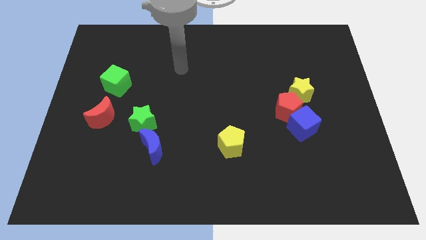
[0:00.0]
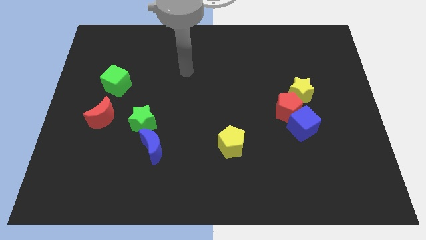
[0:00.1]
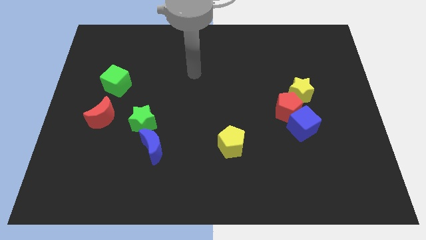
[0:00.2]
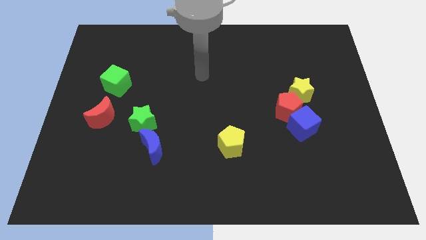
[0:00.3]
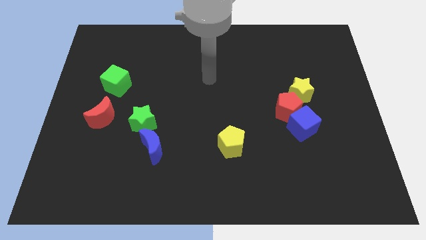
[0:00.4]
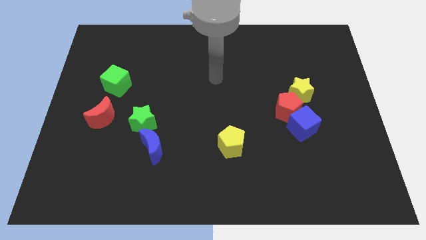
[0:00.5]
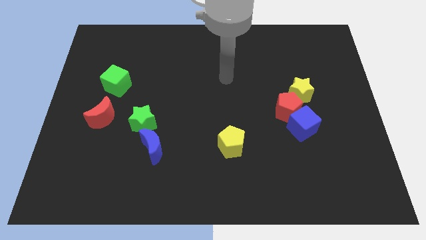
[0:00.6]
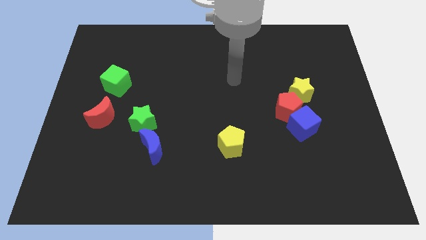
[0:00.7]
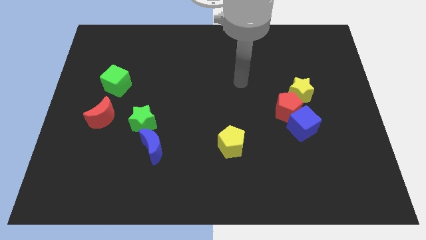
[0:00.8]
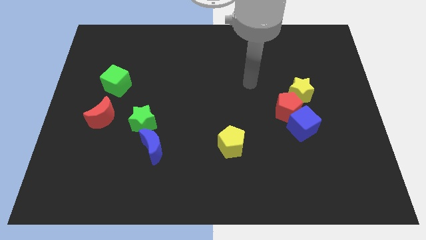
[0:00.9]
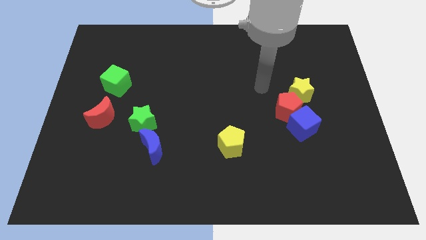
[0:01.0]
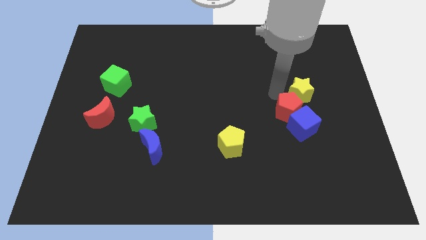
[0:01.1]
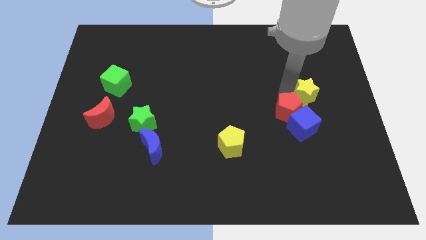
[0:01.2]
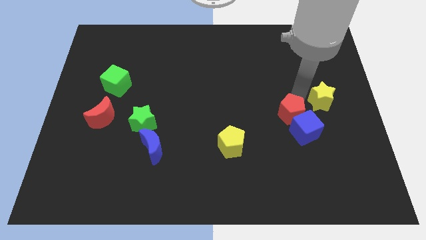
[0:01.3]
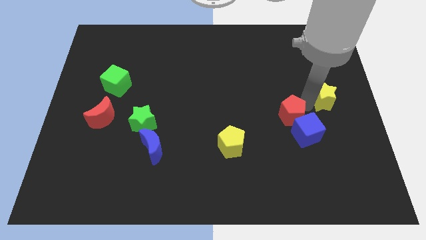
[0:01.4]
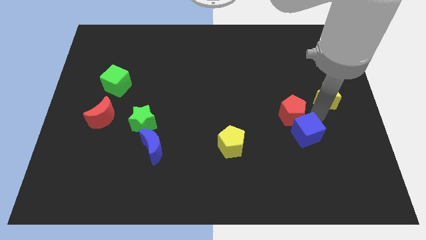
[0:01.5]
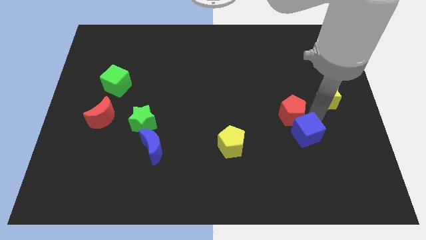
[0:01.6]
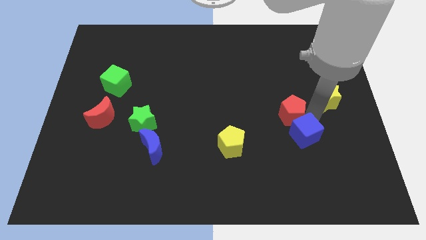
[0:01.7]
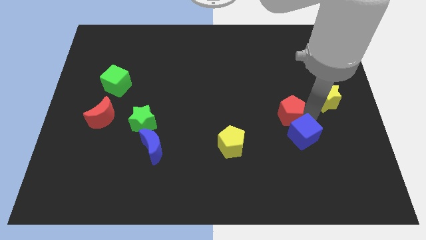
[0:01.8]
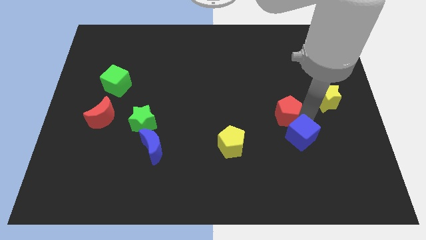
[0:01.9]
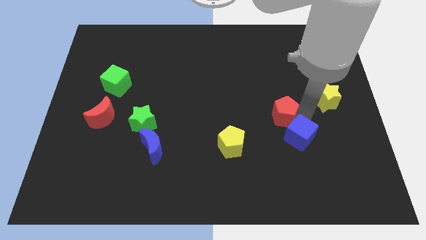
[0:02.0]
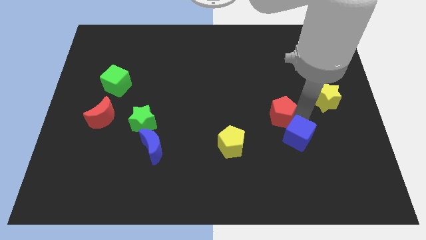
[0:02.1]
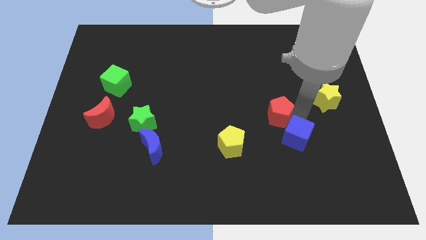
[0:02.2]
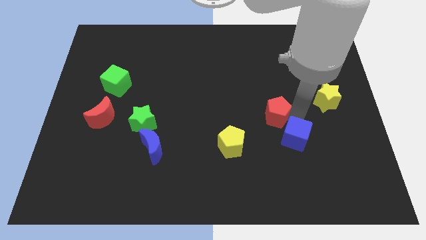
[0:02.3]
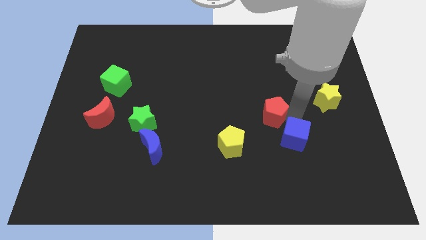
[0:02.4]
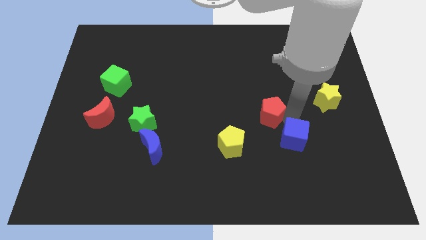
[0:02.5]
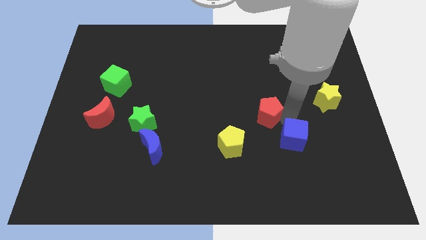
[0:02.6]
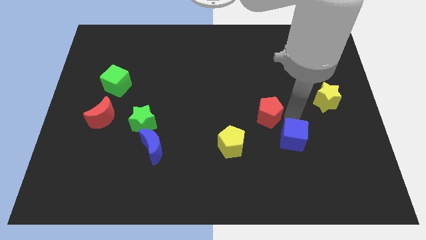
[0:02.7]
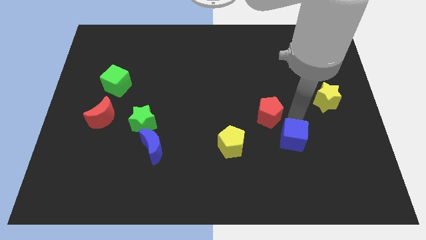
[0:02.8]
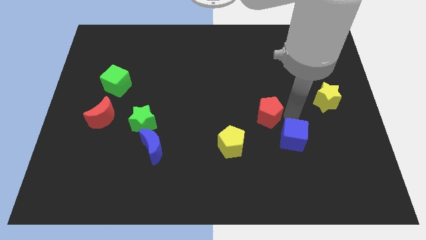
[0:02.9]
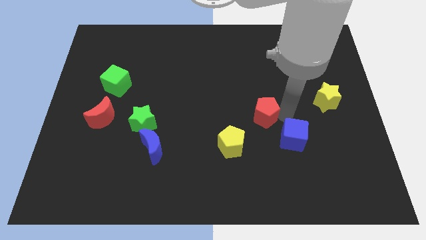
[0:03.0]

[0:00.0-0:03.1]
separate the red pentagon from the blue cube and yellow star

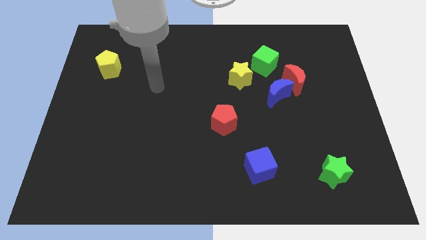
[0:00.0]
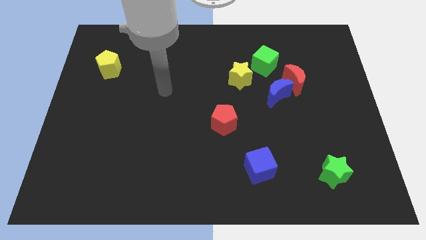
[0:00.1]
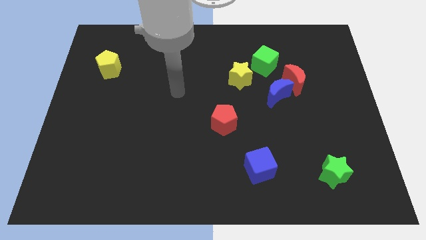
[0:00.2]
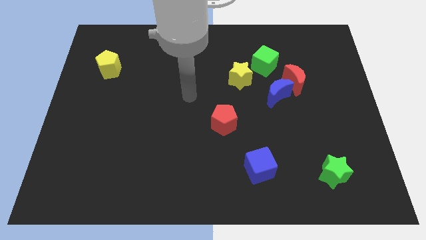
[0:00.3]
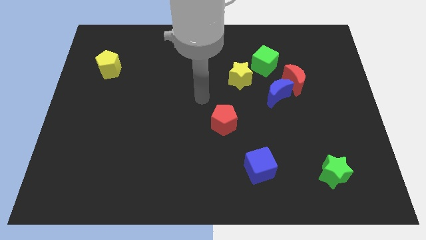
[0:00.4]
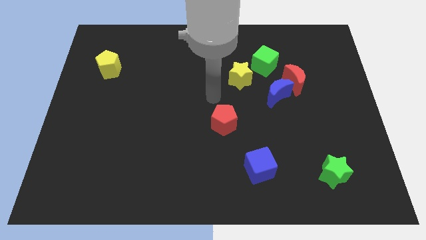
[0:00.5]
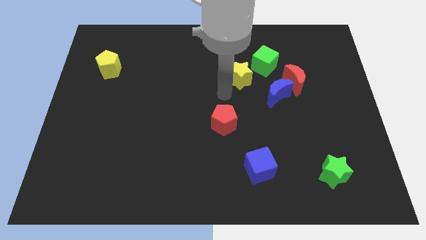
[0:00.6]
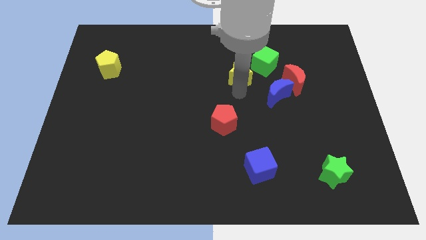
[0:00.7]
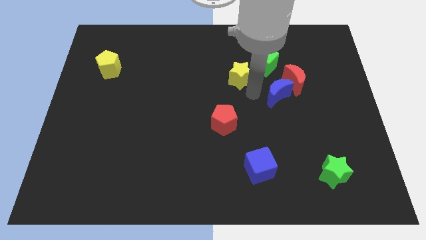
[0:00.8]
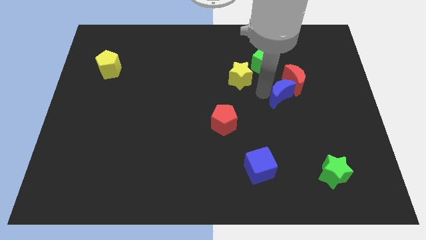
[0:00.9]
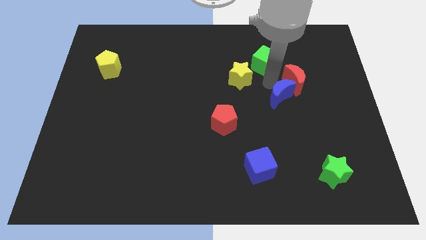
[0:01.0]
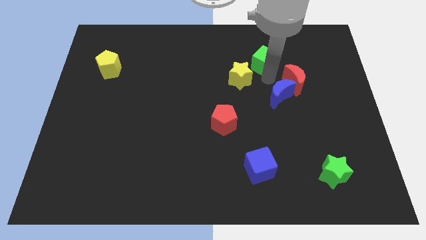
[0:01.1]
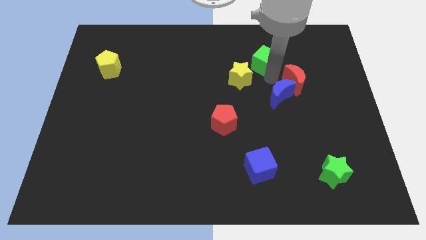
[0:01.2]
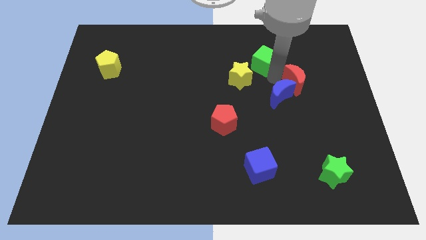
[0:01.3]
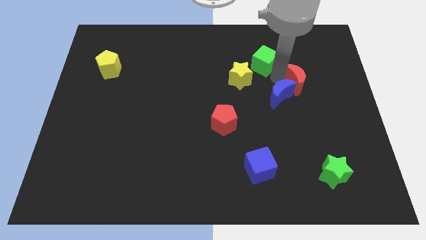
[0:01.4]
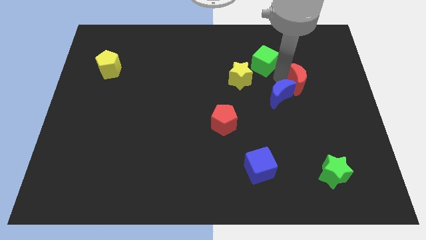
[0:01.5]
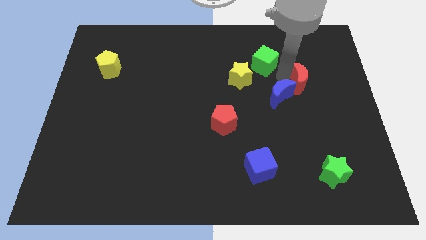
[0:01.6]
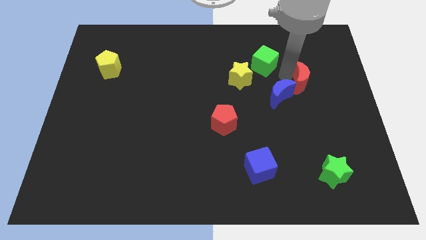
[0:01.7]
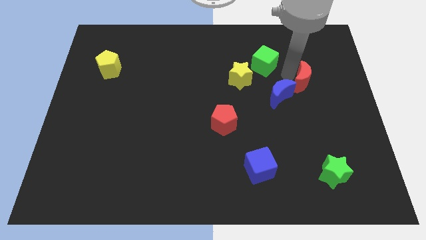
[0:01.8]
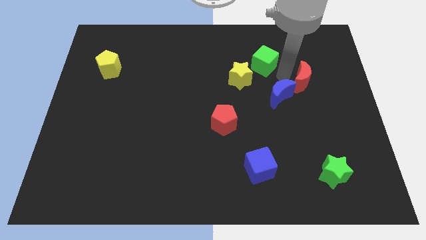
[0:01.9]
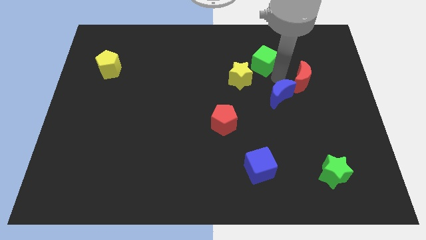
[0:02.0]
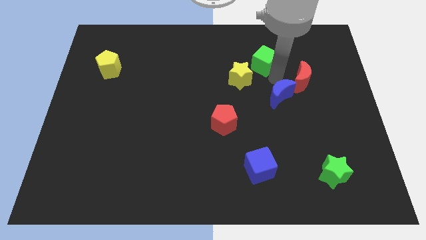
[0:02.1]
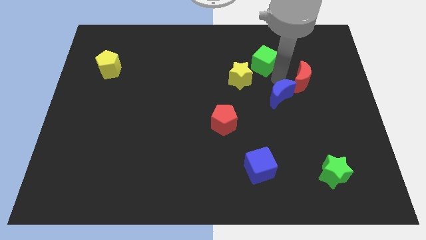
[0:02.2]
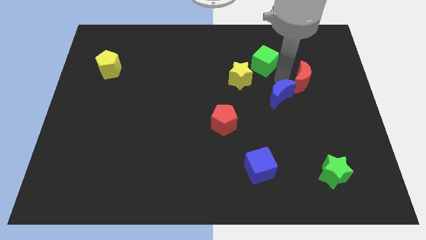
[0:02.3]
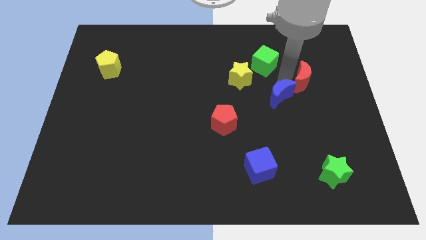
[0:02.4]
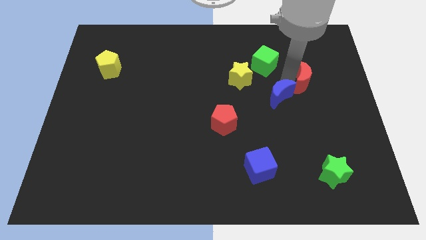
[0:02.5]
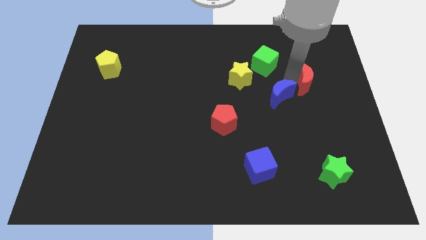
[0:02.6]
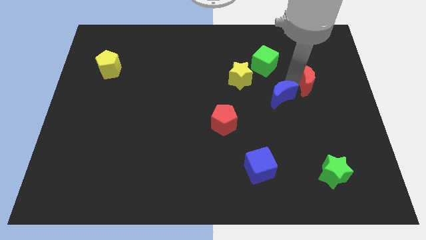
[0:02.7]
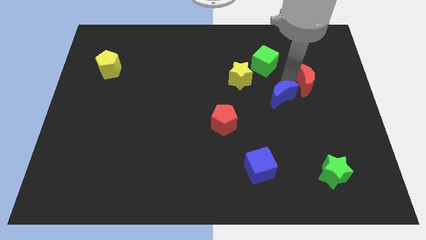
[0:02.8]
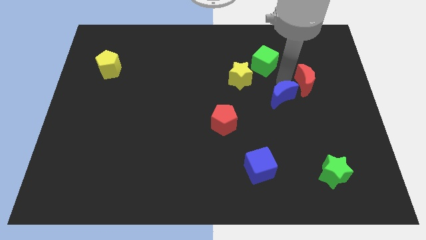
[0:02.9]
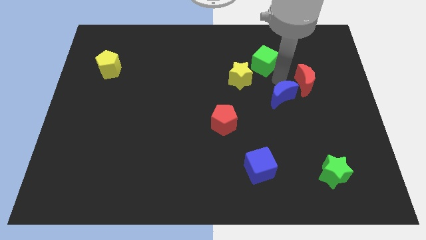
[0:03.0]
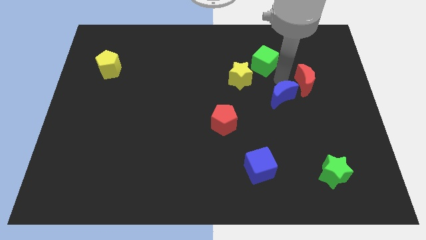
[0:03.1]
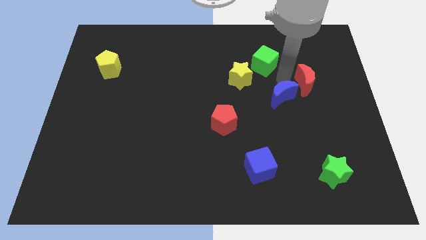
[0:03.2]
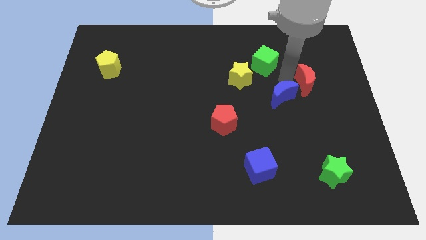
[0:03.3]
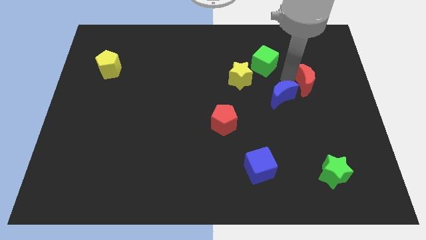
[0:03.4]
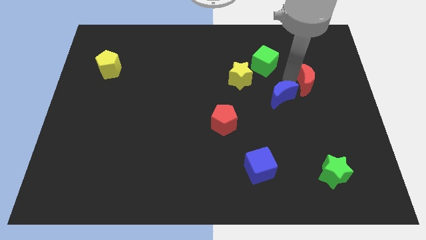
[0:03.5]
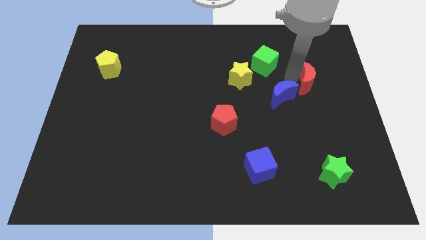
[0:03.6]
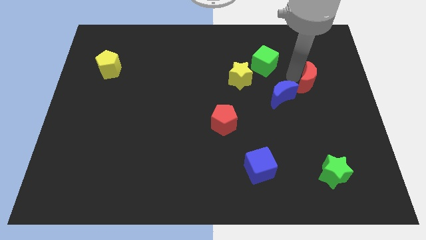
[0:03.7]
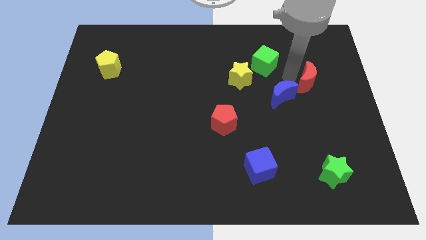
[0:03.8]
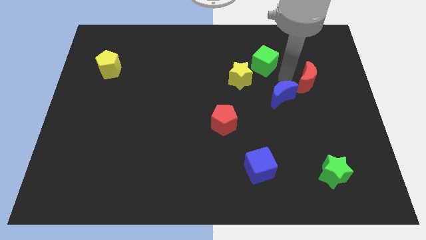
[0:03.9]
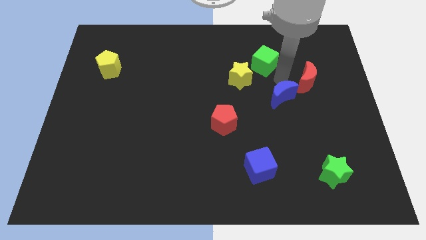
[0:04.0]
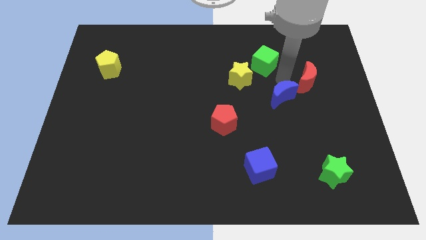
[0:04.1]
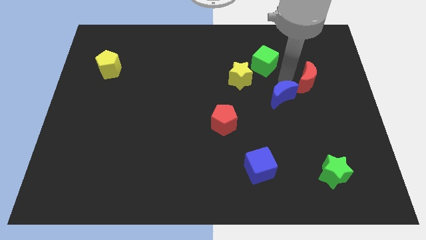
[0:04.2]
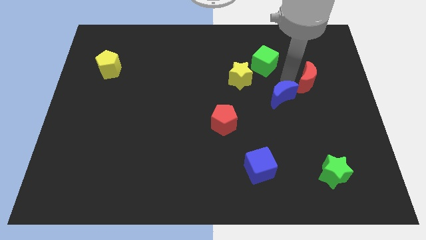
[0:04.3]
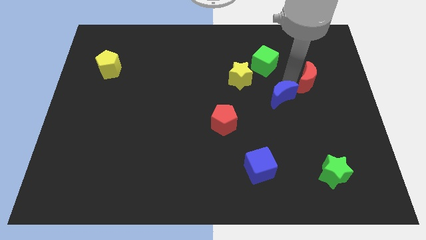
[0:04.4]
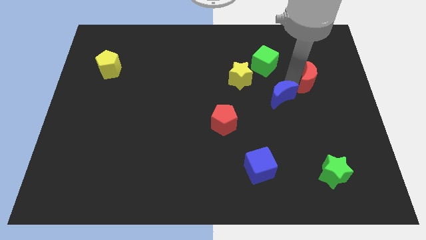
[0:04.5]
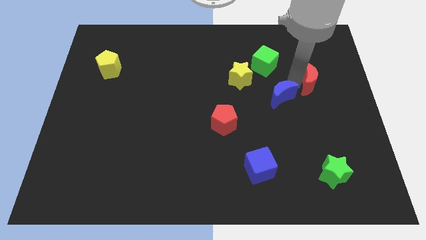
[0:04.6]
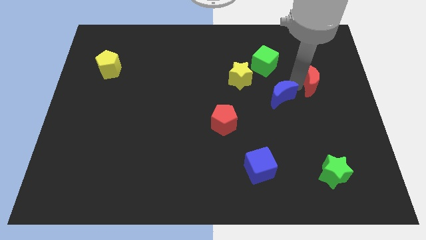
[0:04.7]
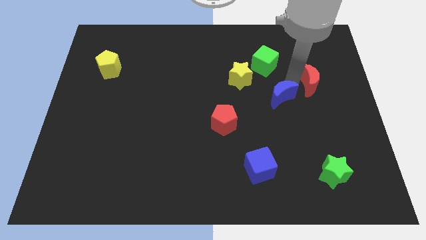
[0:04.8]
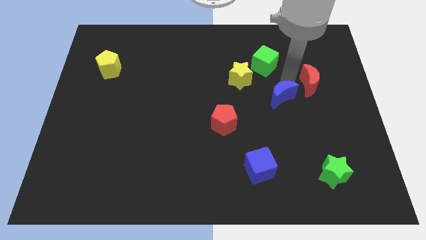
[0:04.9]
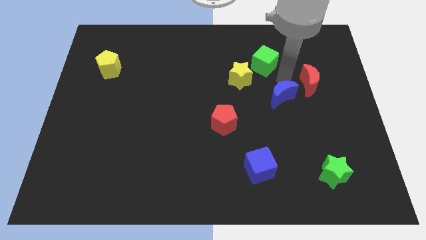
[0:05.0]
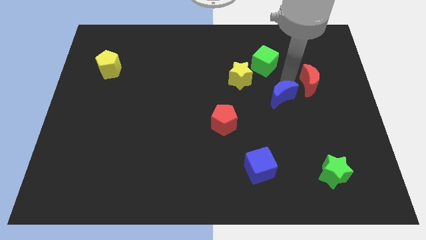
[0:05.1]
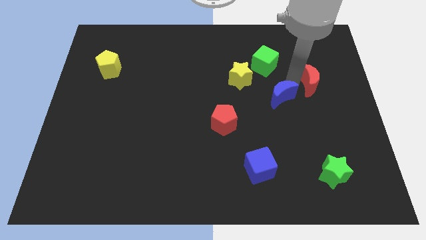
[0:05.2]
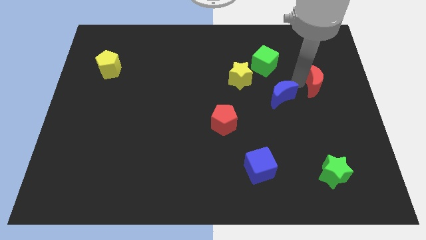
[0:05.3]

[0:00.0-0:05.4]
pull the red moon apart from the blue moon and green cube

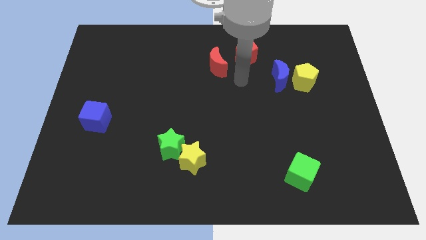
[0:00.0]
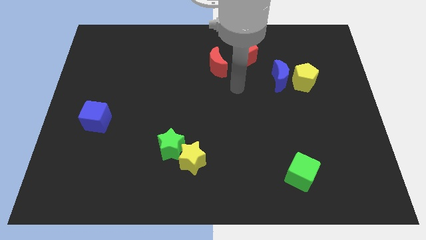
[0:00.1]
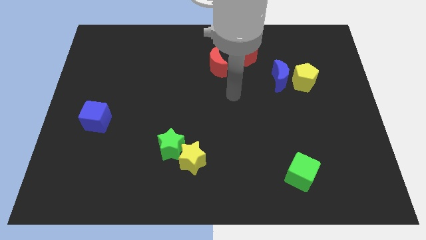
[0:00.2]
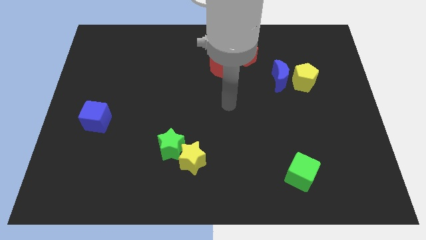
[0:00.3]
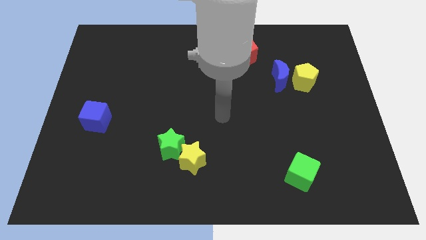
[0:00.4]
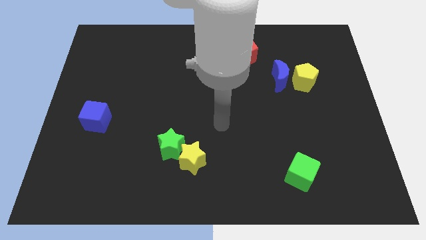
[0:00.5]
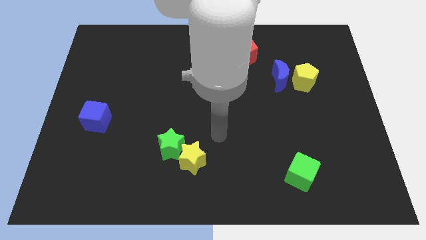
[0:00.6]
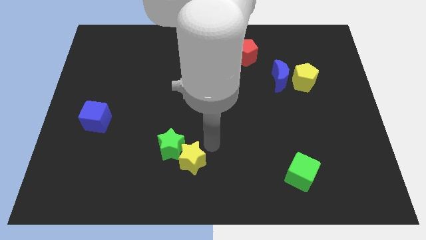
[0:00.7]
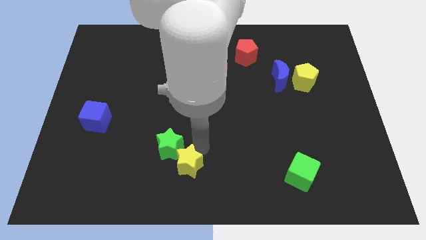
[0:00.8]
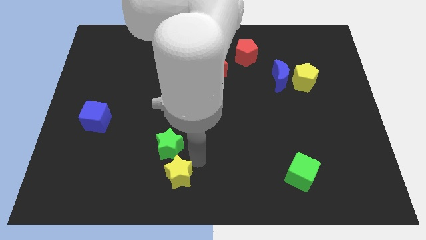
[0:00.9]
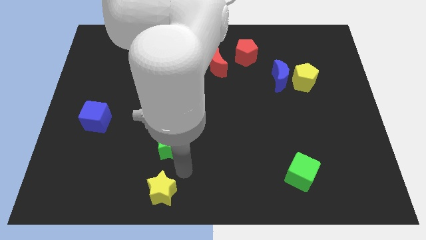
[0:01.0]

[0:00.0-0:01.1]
separate the green star from the yellow star
